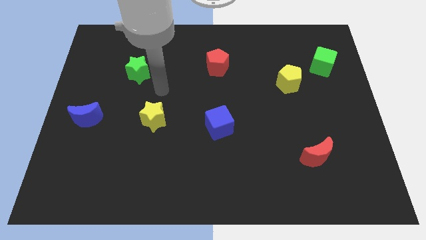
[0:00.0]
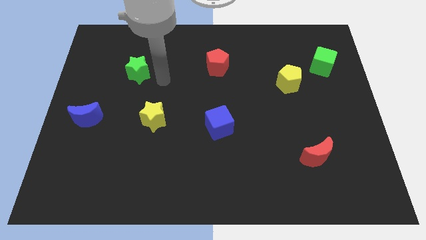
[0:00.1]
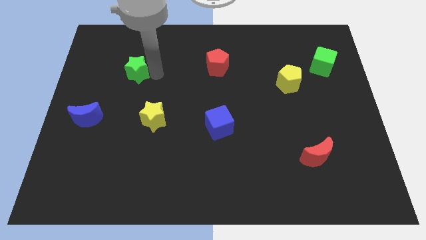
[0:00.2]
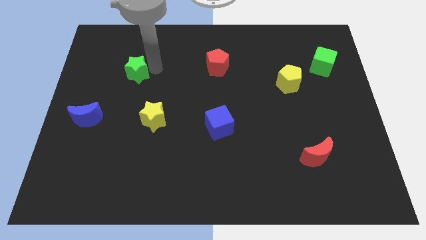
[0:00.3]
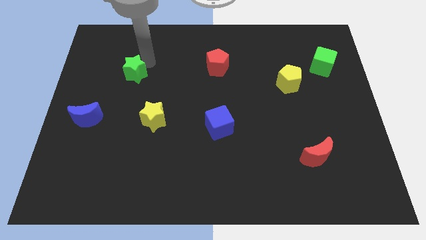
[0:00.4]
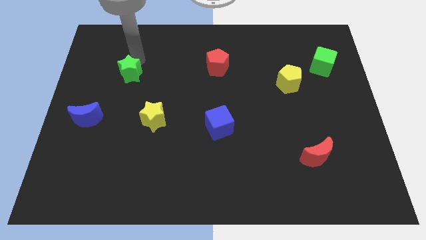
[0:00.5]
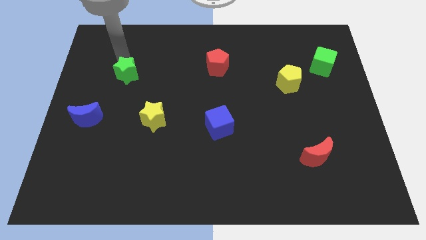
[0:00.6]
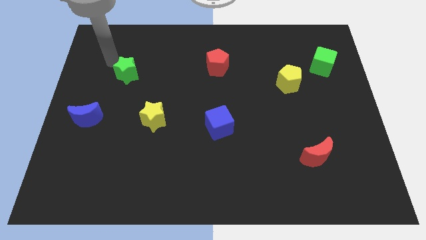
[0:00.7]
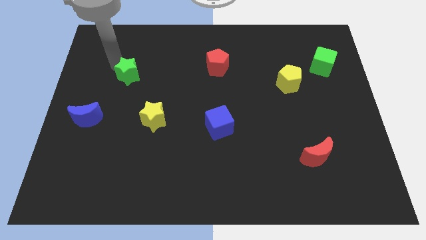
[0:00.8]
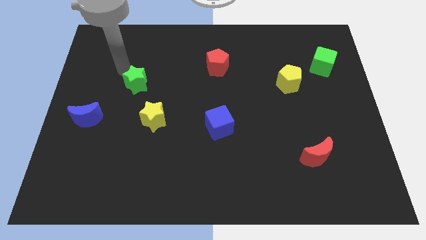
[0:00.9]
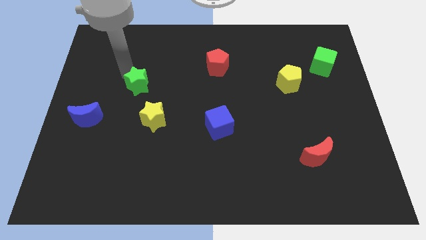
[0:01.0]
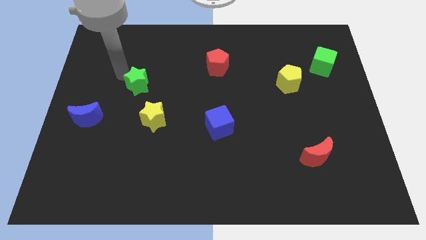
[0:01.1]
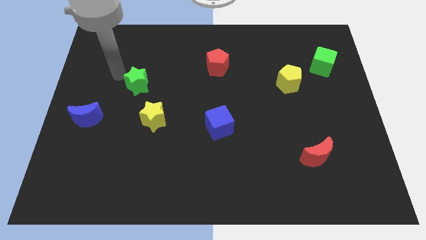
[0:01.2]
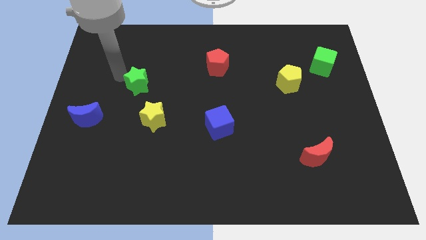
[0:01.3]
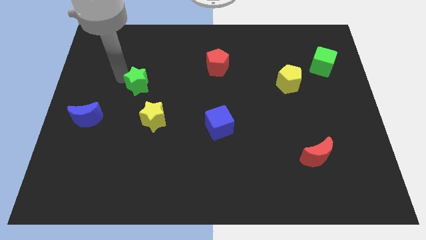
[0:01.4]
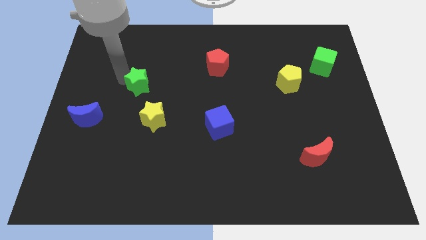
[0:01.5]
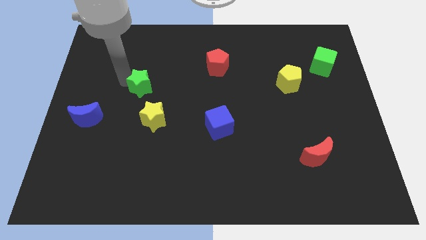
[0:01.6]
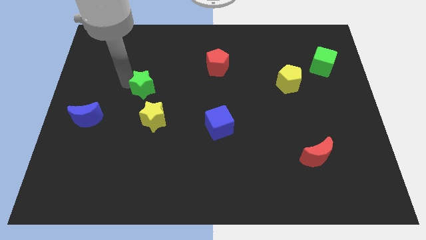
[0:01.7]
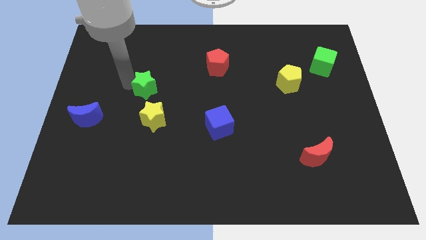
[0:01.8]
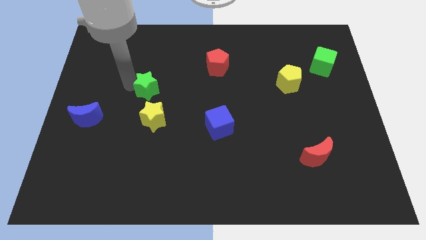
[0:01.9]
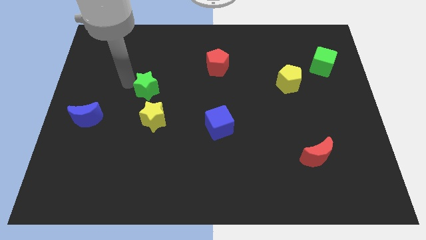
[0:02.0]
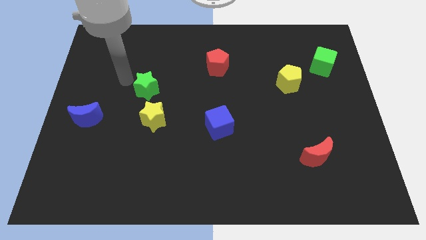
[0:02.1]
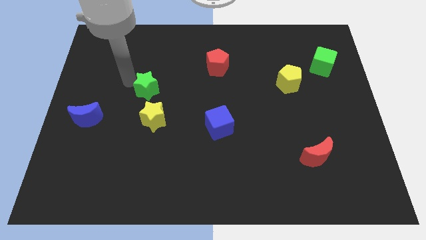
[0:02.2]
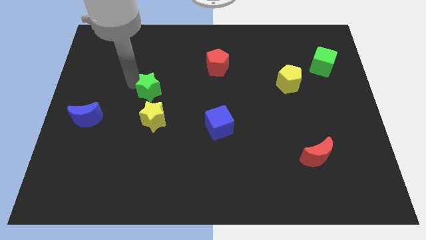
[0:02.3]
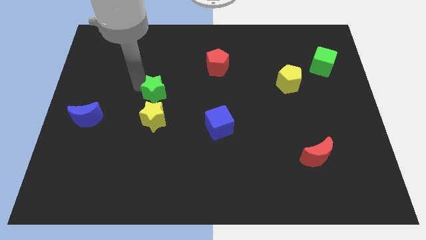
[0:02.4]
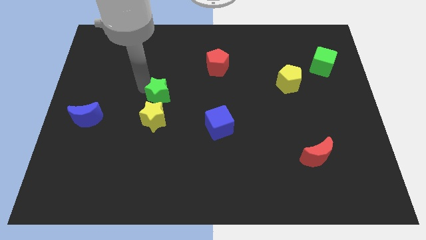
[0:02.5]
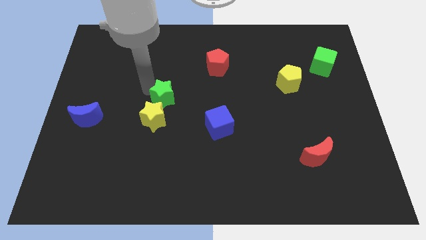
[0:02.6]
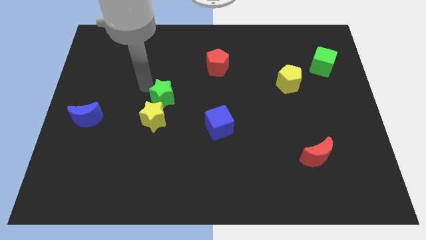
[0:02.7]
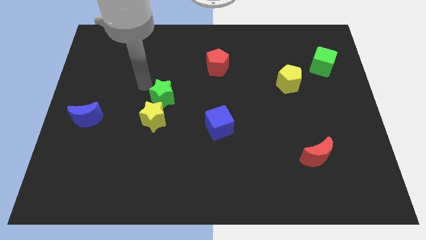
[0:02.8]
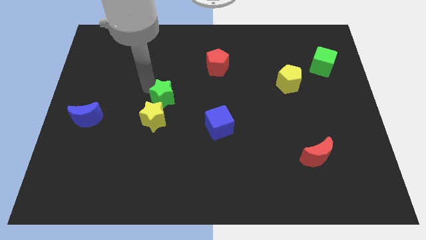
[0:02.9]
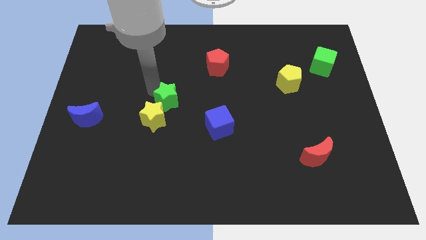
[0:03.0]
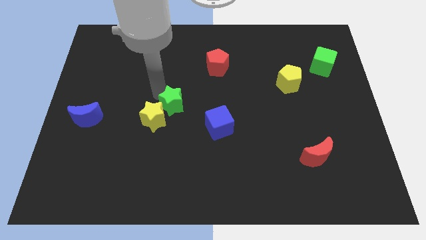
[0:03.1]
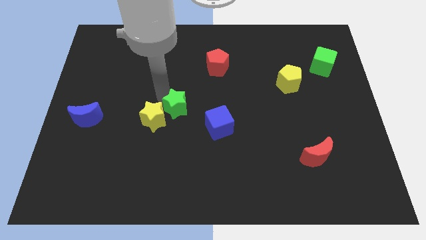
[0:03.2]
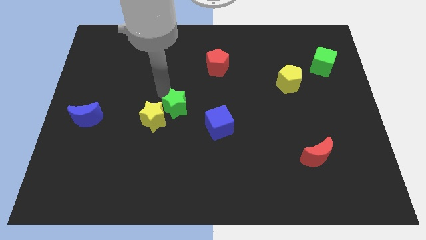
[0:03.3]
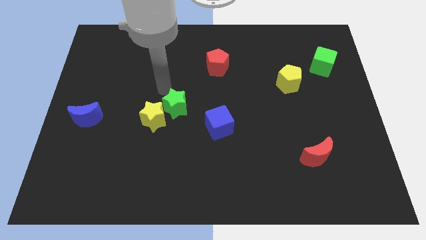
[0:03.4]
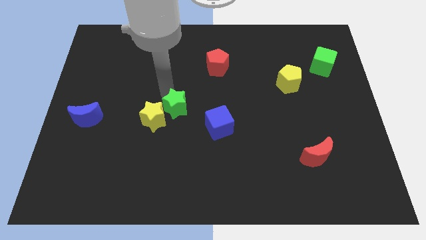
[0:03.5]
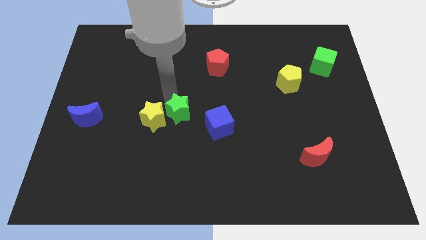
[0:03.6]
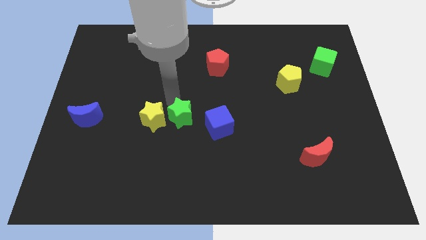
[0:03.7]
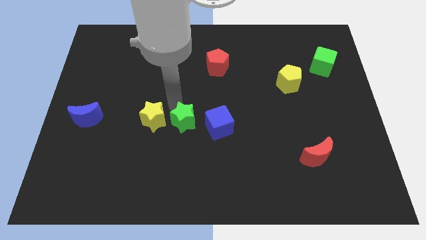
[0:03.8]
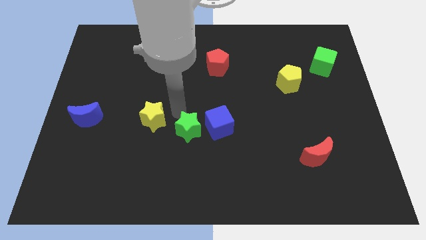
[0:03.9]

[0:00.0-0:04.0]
move the green star down and right diagonally

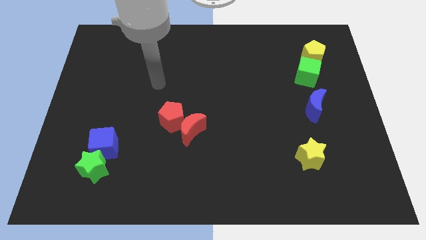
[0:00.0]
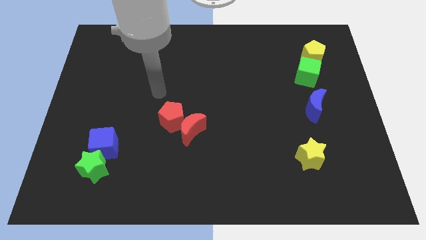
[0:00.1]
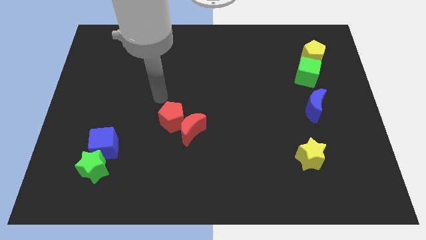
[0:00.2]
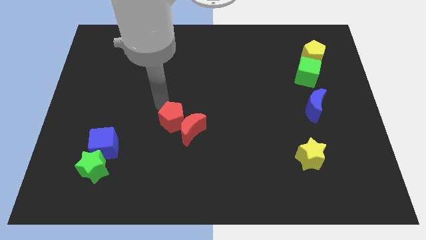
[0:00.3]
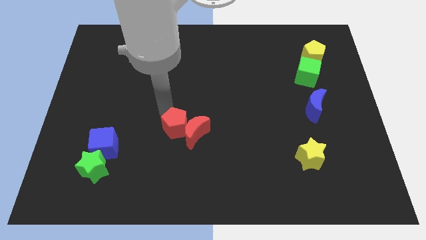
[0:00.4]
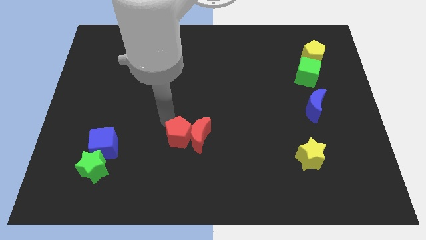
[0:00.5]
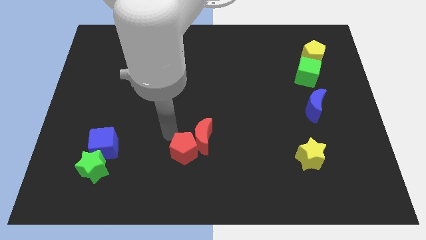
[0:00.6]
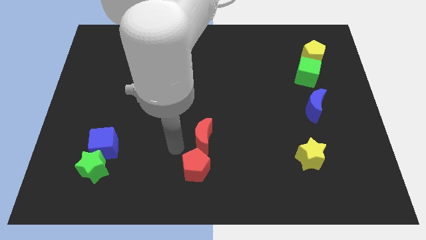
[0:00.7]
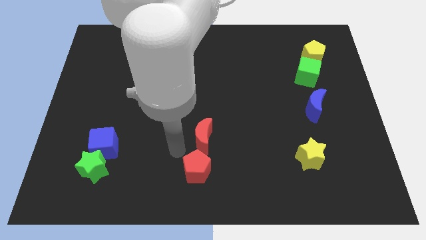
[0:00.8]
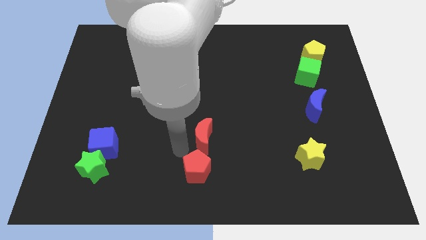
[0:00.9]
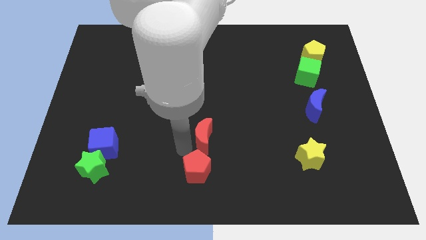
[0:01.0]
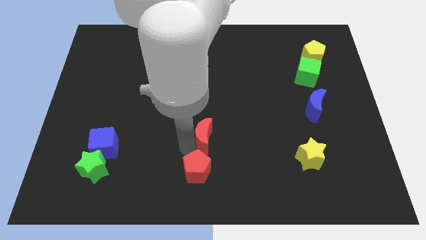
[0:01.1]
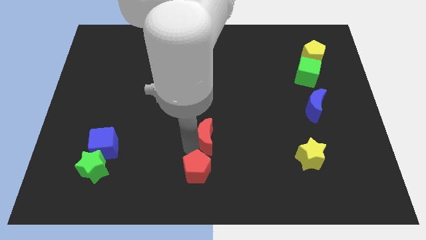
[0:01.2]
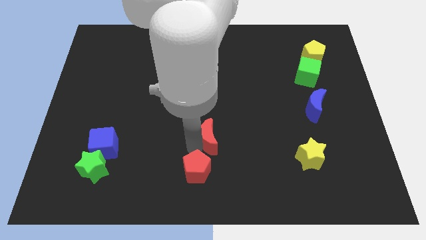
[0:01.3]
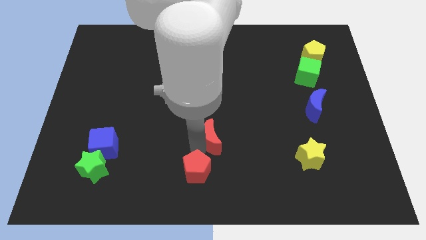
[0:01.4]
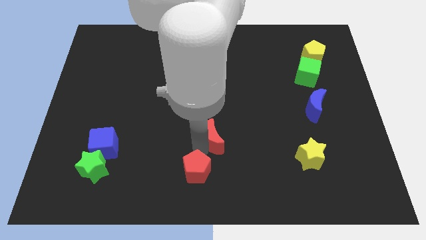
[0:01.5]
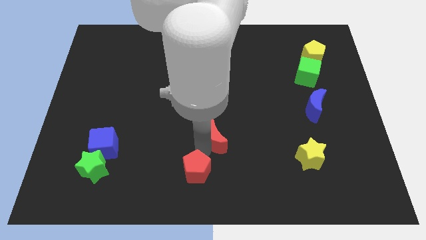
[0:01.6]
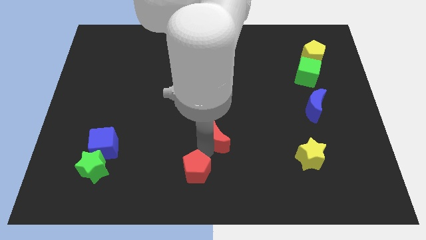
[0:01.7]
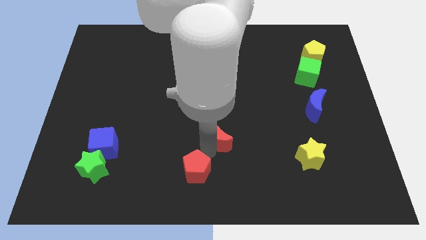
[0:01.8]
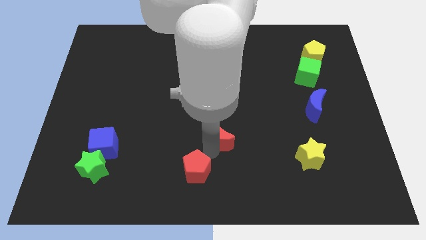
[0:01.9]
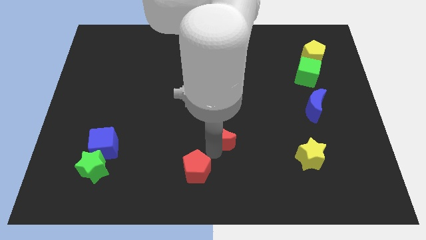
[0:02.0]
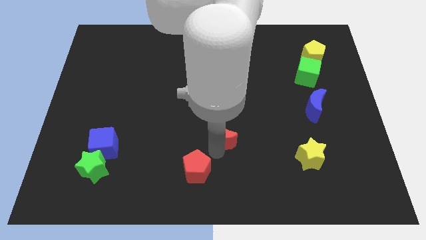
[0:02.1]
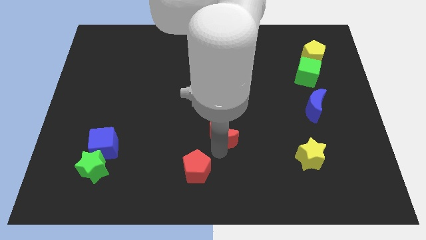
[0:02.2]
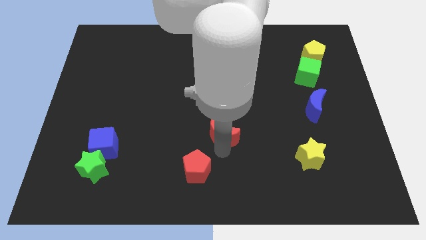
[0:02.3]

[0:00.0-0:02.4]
move the red moon to the right a bit

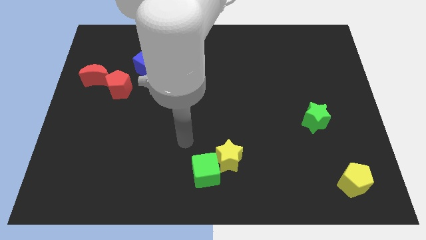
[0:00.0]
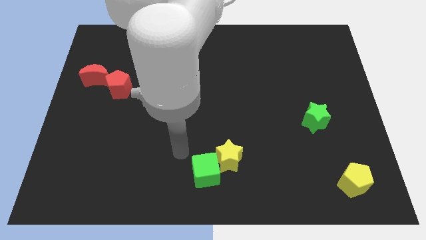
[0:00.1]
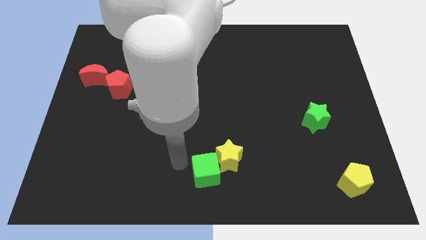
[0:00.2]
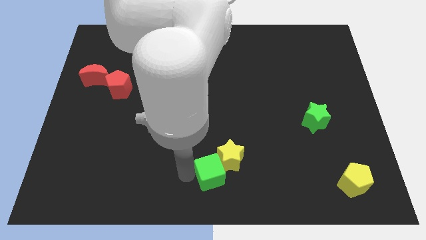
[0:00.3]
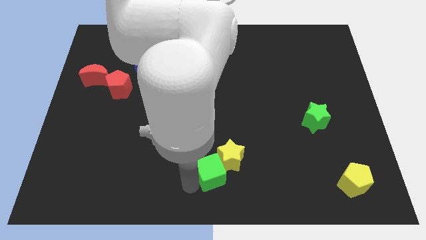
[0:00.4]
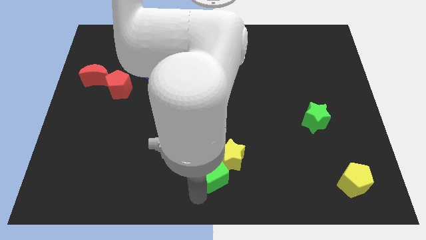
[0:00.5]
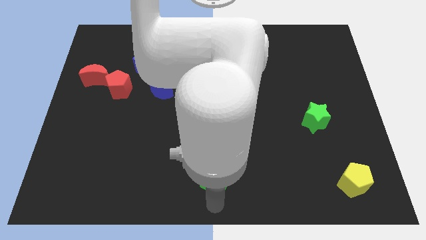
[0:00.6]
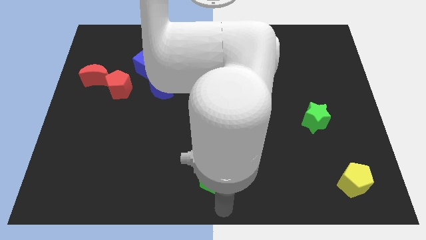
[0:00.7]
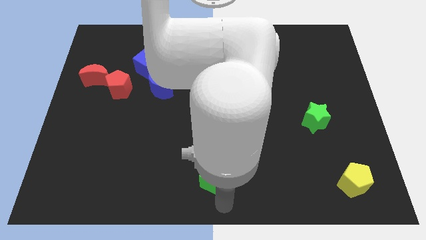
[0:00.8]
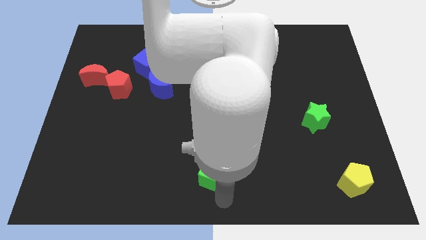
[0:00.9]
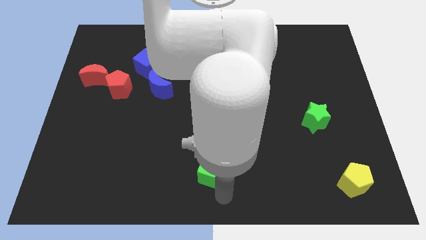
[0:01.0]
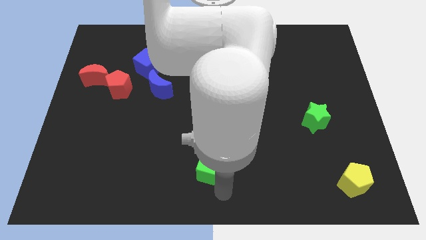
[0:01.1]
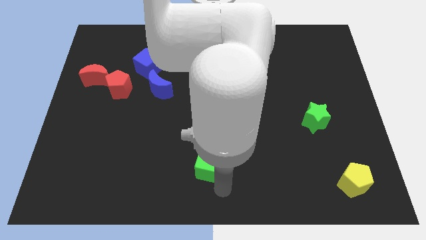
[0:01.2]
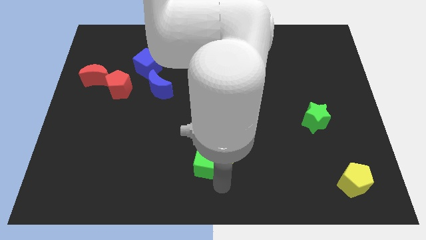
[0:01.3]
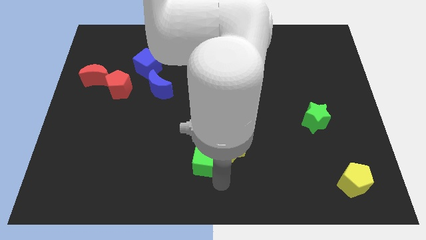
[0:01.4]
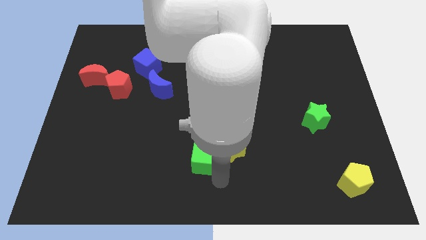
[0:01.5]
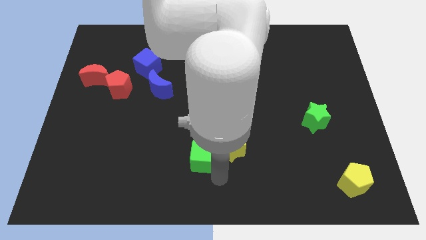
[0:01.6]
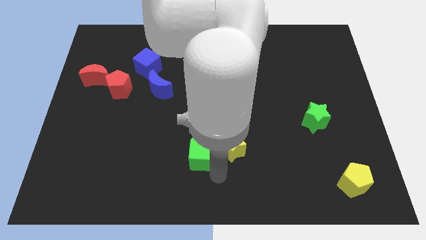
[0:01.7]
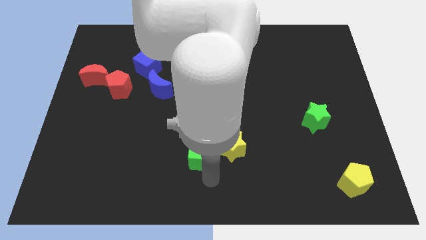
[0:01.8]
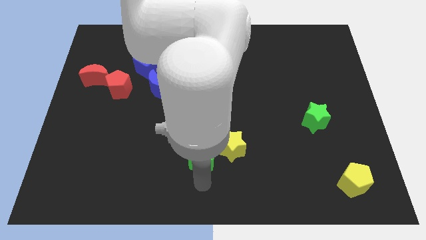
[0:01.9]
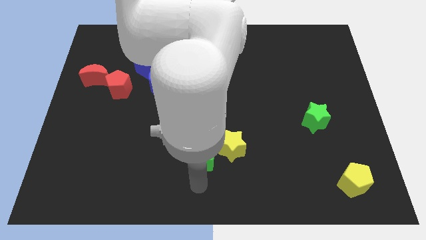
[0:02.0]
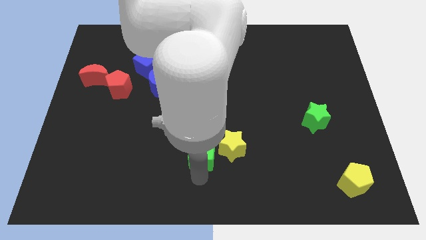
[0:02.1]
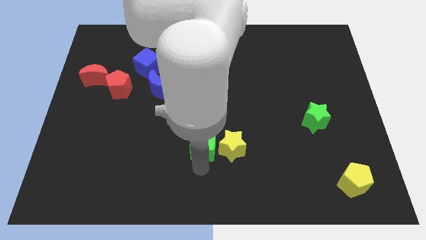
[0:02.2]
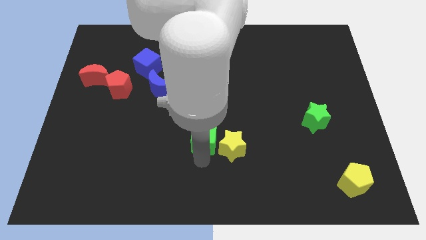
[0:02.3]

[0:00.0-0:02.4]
slightly push the green cube up
